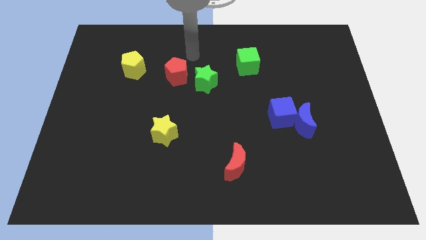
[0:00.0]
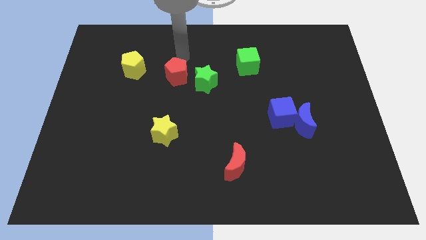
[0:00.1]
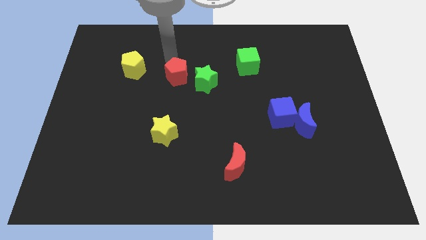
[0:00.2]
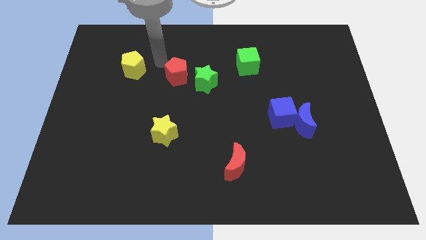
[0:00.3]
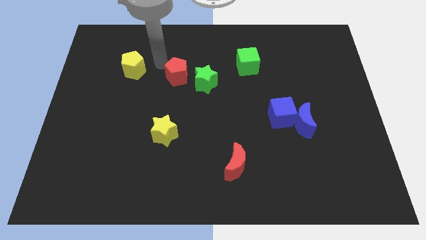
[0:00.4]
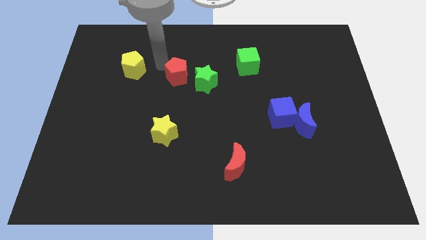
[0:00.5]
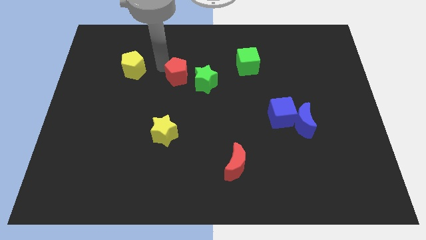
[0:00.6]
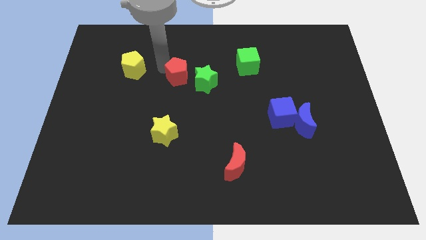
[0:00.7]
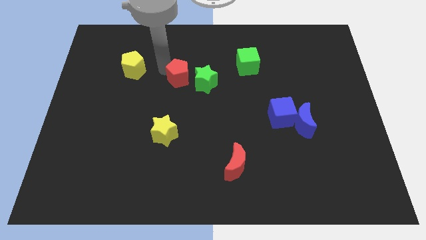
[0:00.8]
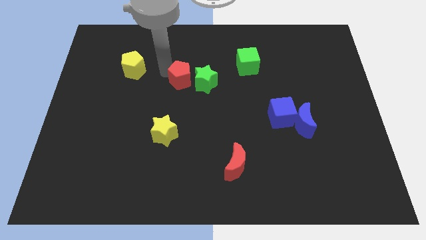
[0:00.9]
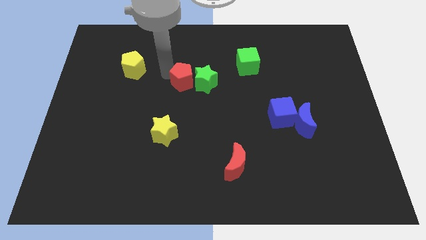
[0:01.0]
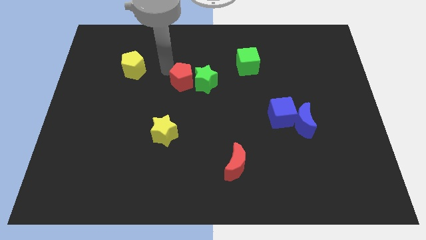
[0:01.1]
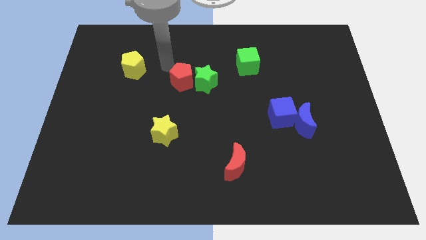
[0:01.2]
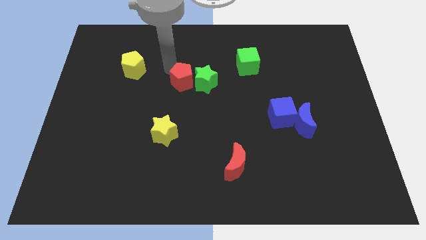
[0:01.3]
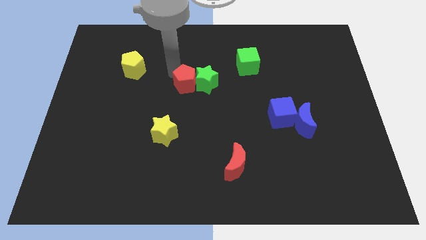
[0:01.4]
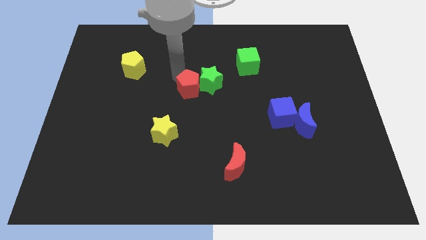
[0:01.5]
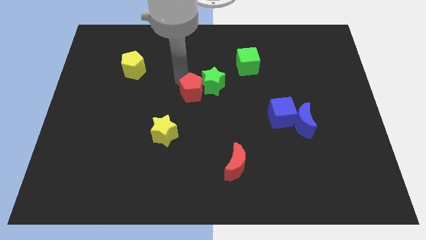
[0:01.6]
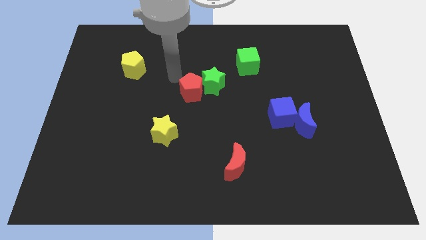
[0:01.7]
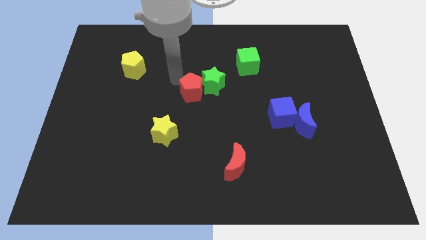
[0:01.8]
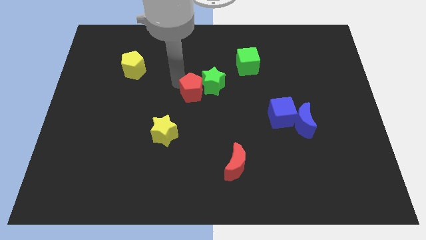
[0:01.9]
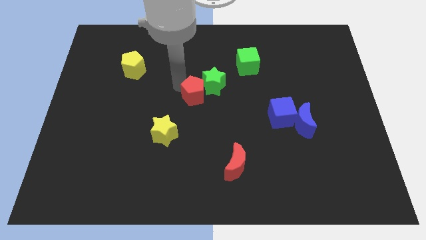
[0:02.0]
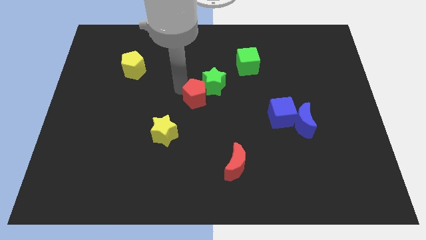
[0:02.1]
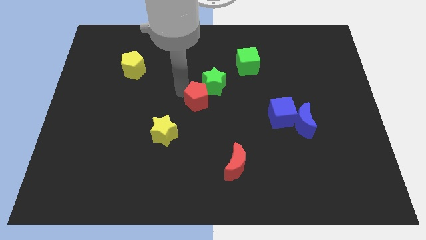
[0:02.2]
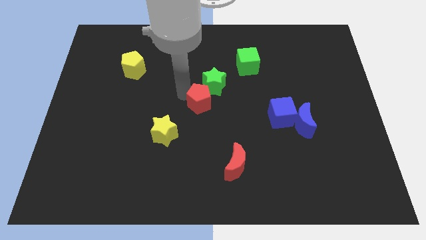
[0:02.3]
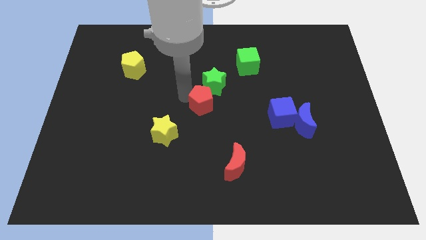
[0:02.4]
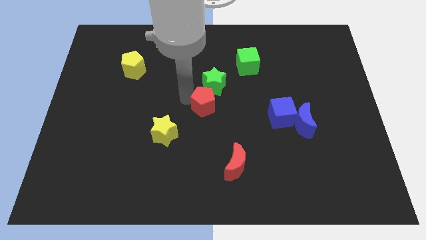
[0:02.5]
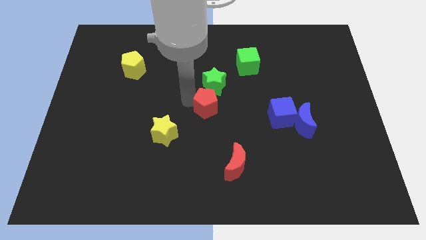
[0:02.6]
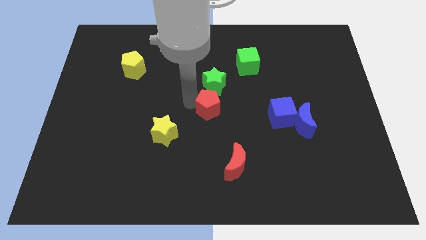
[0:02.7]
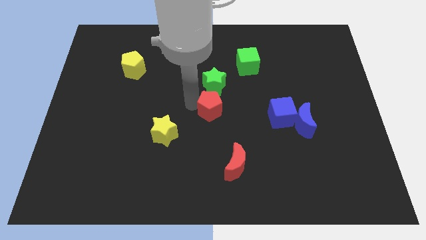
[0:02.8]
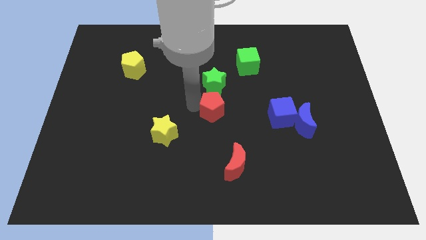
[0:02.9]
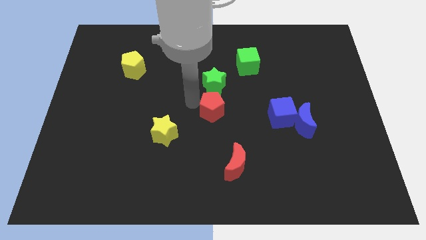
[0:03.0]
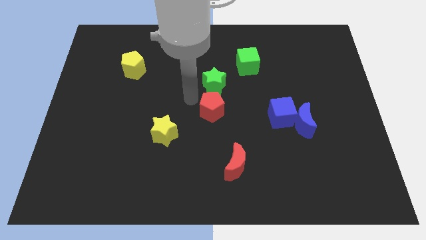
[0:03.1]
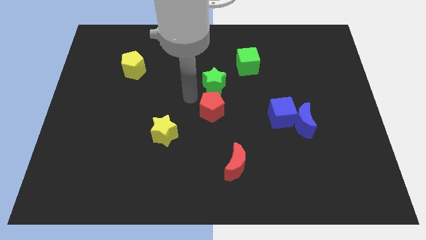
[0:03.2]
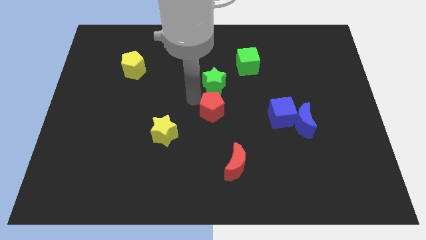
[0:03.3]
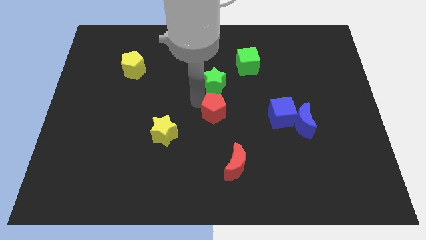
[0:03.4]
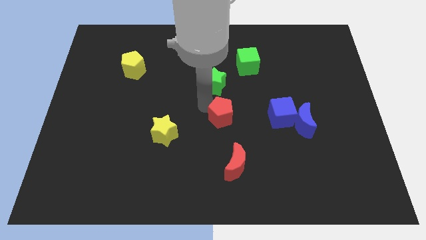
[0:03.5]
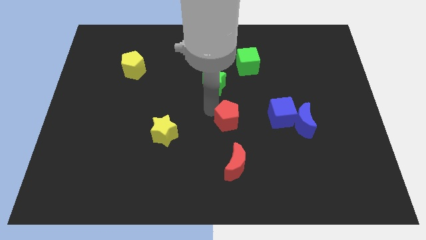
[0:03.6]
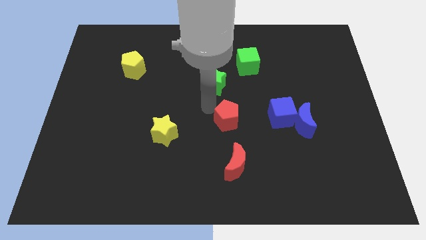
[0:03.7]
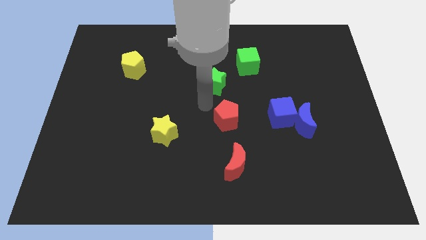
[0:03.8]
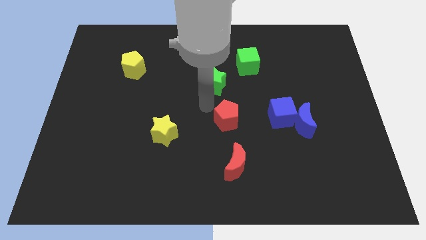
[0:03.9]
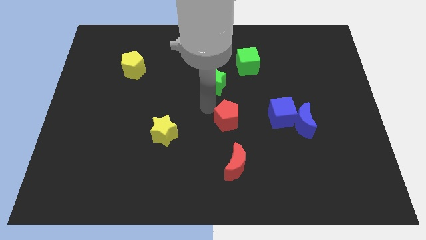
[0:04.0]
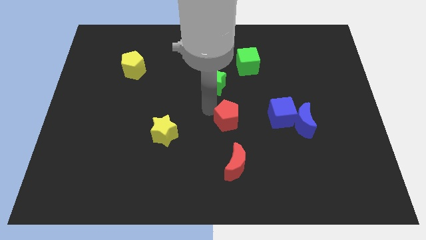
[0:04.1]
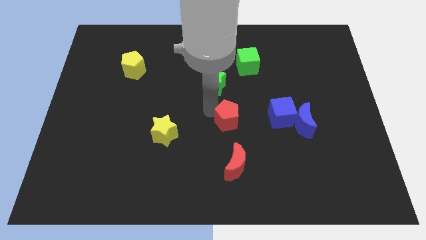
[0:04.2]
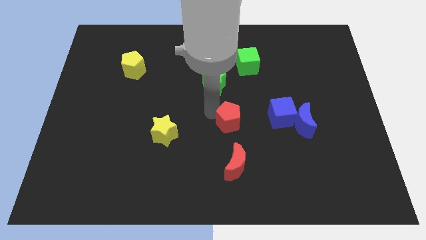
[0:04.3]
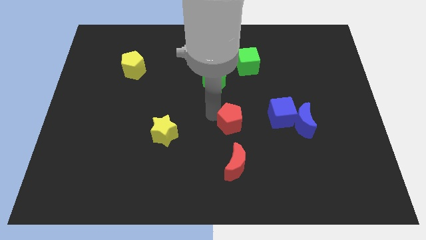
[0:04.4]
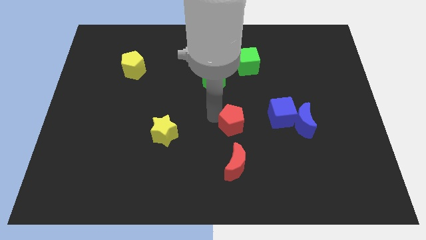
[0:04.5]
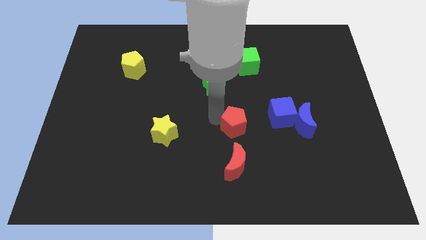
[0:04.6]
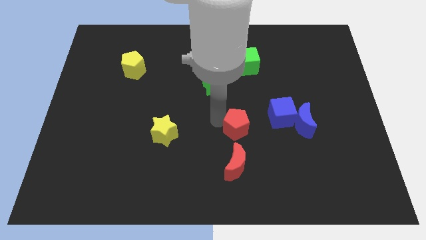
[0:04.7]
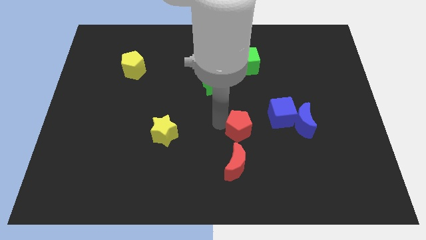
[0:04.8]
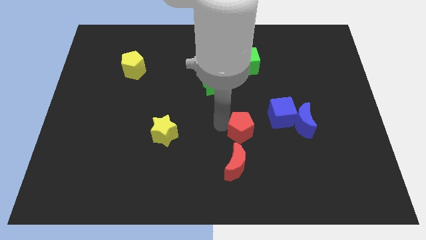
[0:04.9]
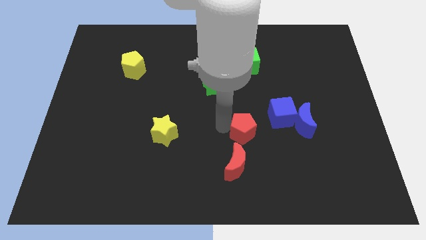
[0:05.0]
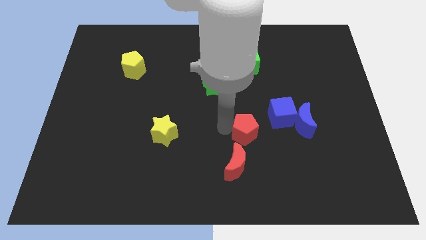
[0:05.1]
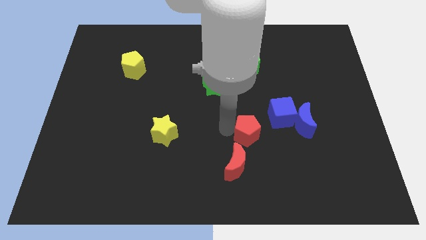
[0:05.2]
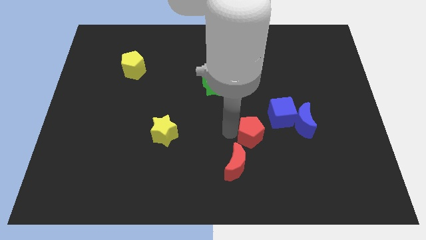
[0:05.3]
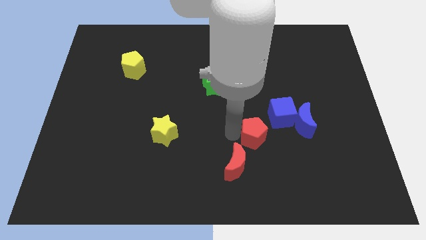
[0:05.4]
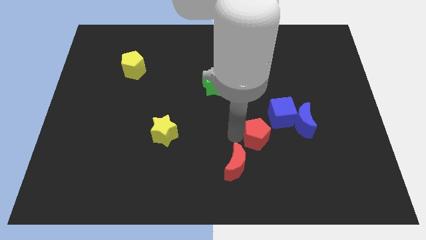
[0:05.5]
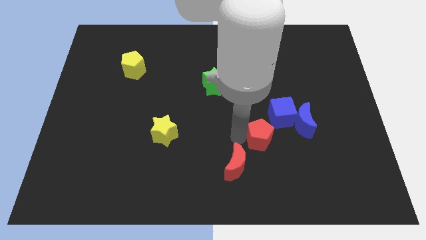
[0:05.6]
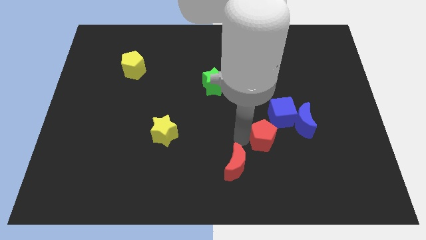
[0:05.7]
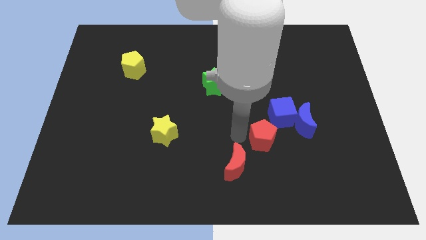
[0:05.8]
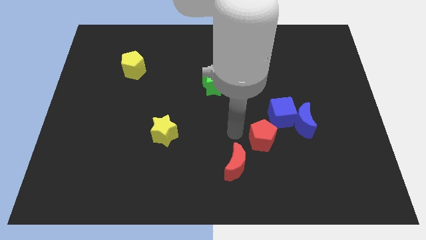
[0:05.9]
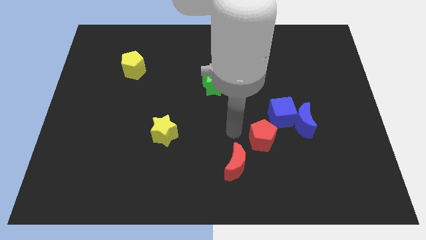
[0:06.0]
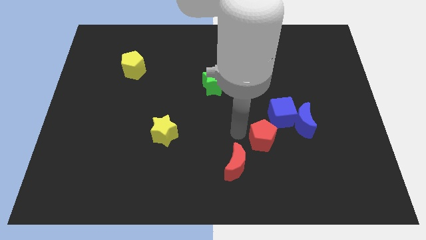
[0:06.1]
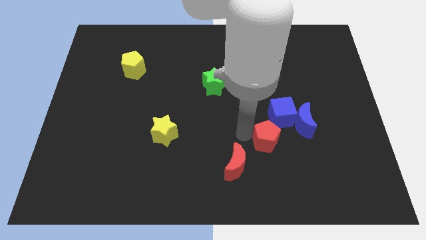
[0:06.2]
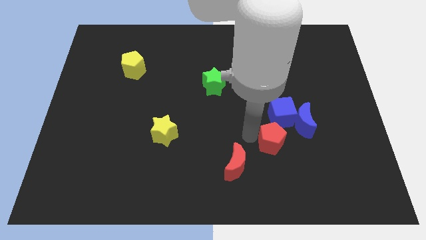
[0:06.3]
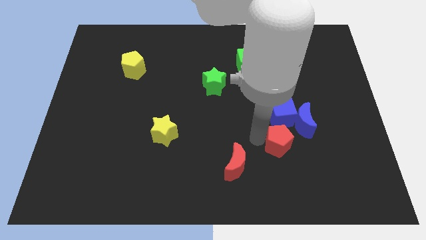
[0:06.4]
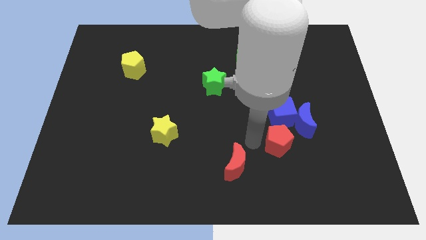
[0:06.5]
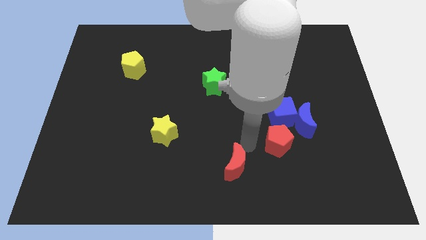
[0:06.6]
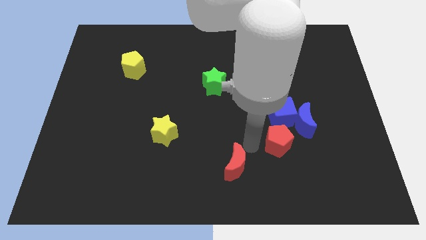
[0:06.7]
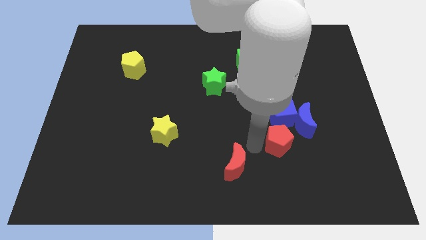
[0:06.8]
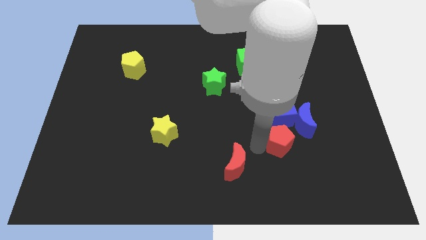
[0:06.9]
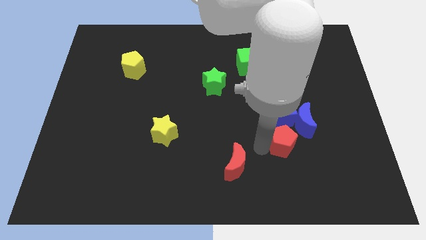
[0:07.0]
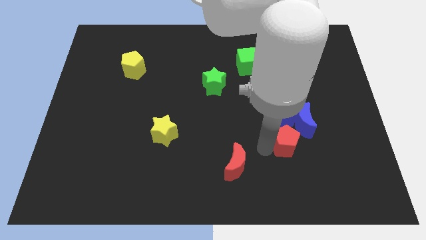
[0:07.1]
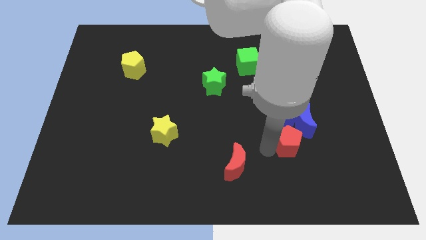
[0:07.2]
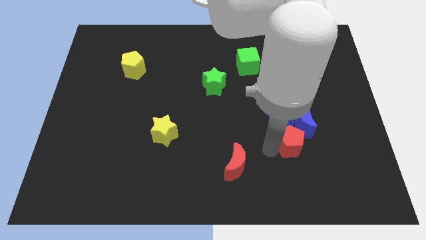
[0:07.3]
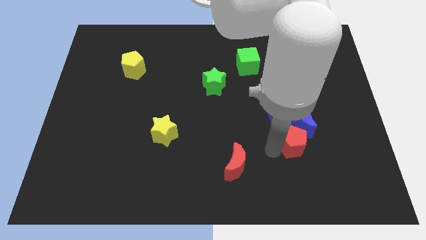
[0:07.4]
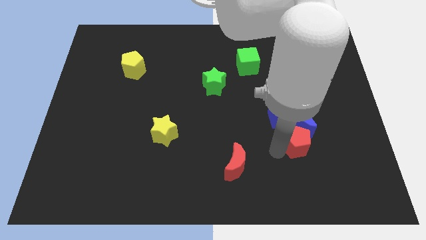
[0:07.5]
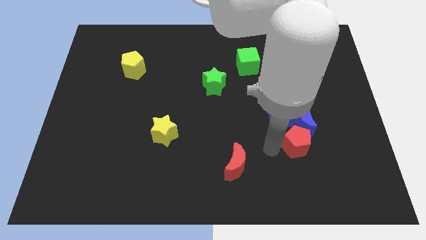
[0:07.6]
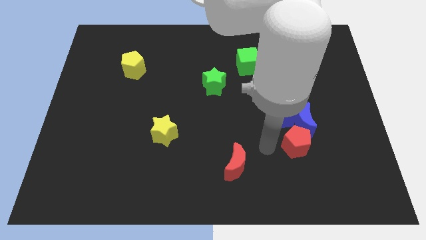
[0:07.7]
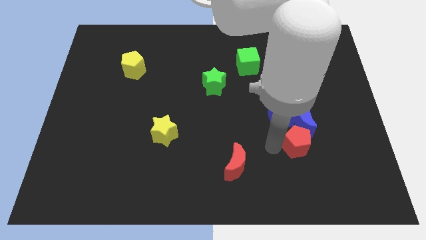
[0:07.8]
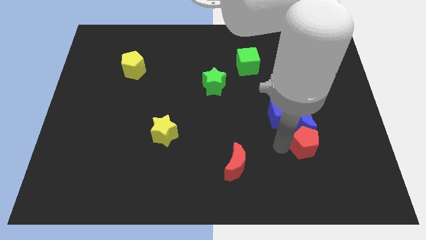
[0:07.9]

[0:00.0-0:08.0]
put the red pentagon diagonally down and to the right of the blue moon
